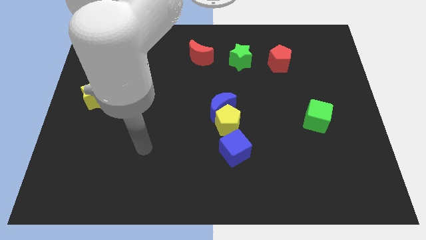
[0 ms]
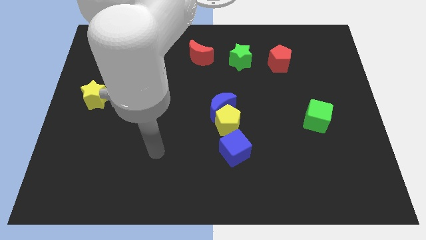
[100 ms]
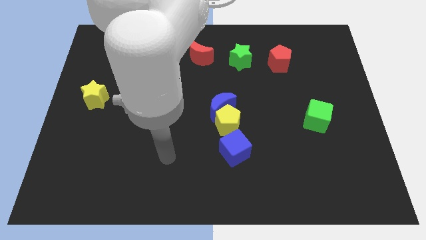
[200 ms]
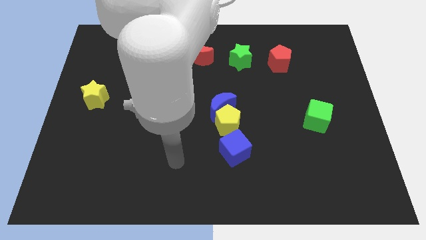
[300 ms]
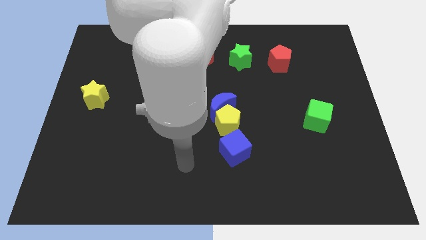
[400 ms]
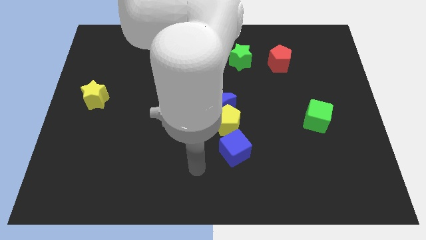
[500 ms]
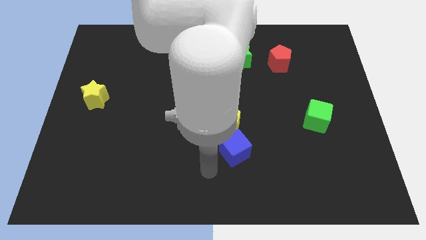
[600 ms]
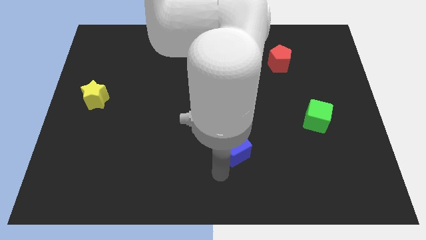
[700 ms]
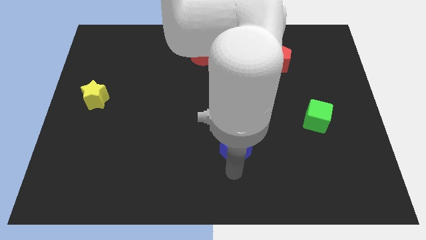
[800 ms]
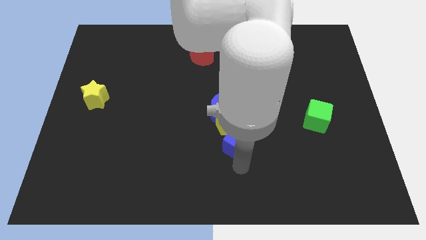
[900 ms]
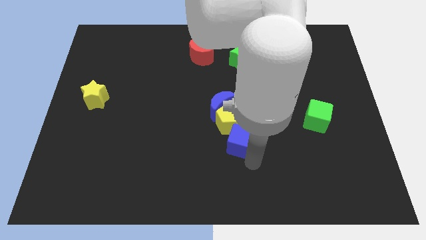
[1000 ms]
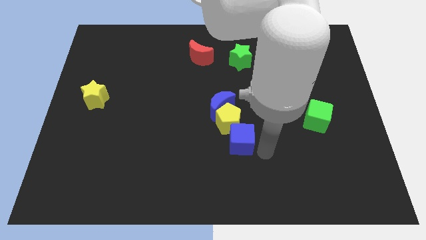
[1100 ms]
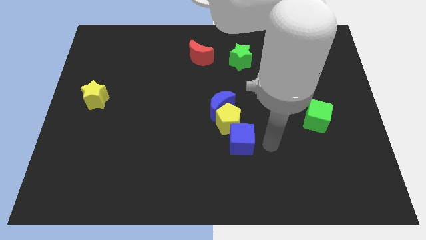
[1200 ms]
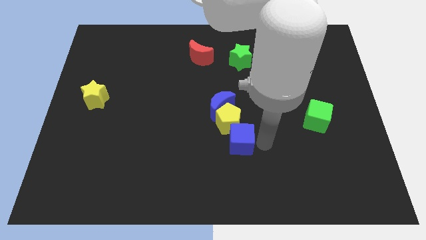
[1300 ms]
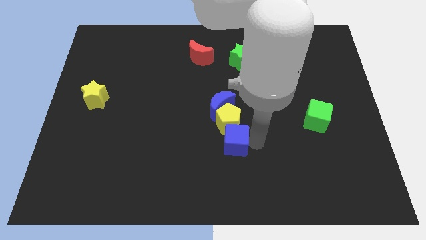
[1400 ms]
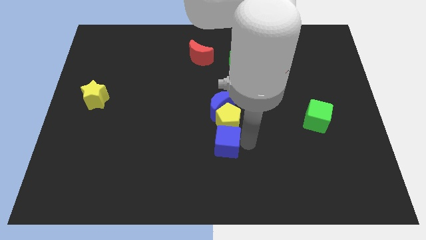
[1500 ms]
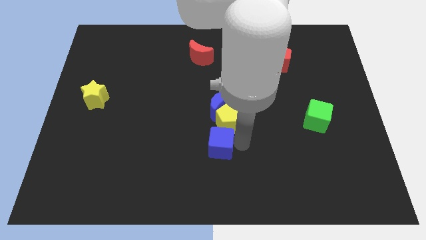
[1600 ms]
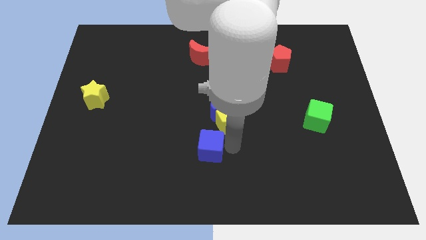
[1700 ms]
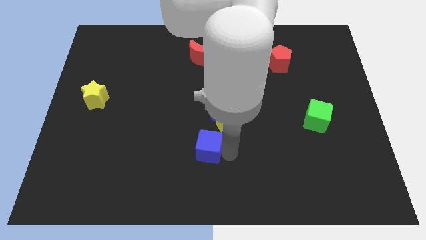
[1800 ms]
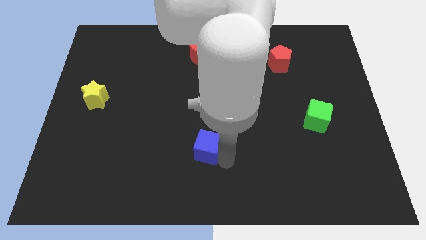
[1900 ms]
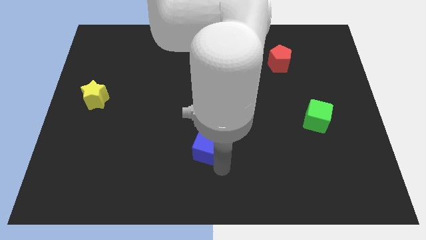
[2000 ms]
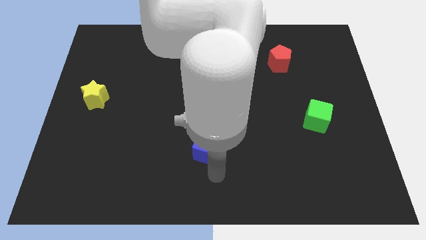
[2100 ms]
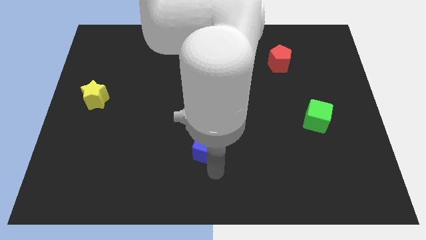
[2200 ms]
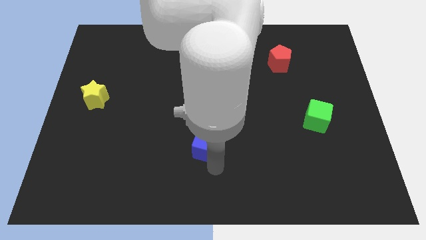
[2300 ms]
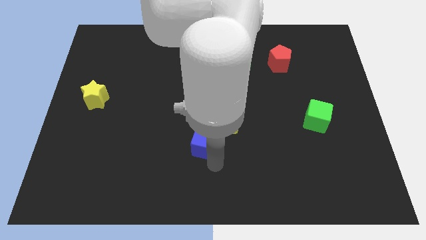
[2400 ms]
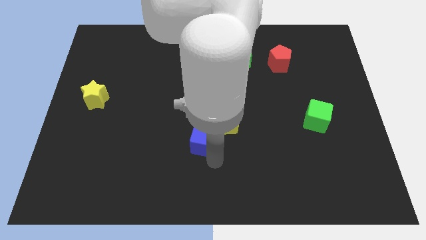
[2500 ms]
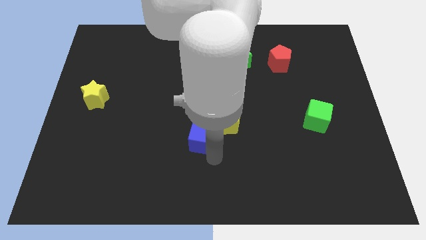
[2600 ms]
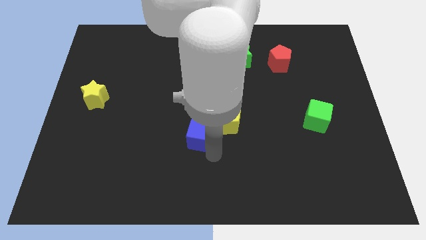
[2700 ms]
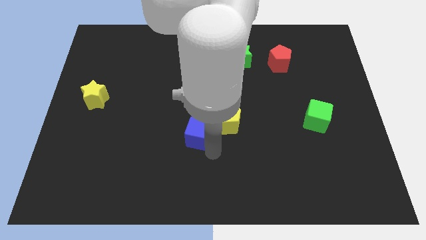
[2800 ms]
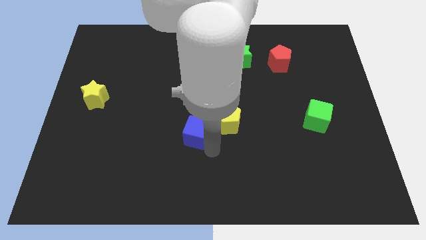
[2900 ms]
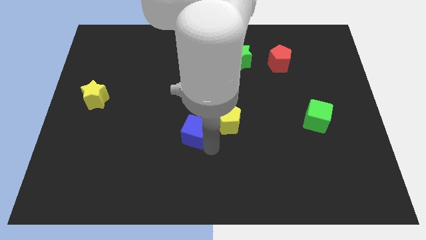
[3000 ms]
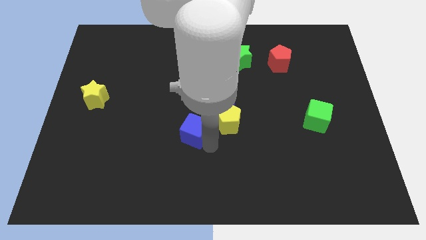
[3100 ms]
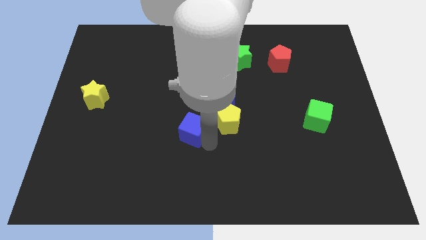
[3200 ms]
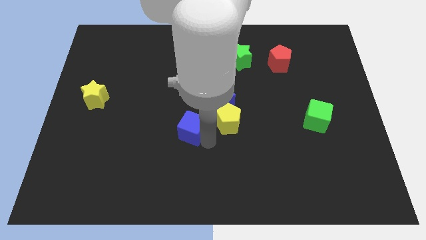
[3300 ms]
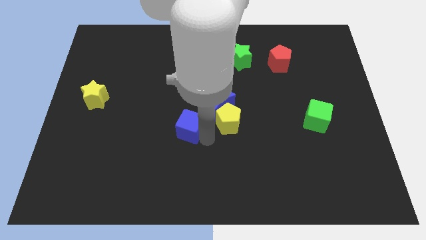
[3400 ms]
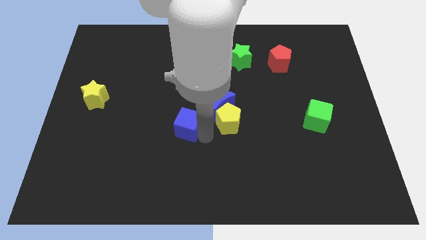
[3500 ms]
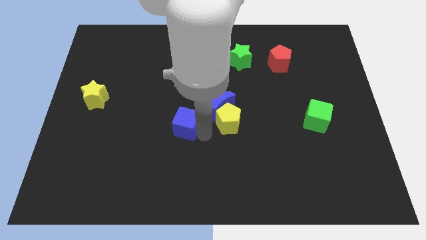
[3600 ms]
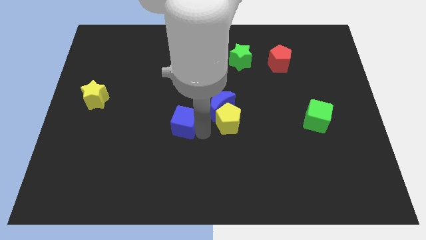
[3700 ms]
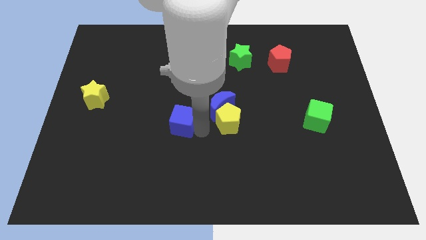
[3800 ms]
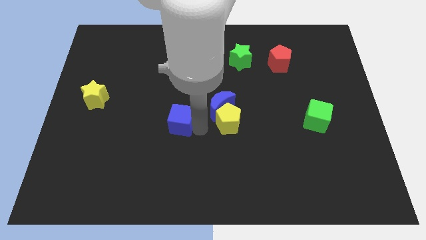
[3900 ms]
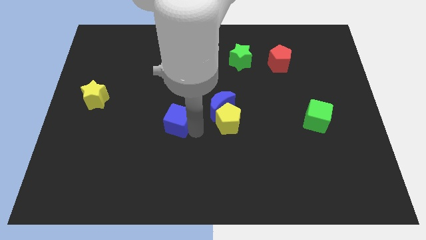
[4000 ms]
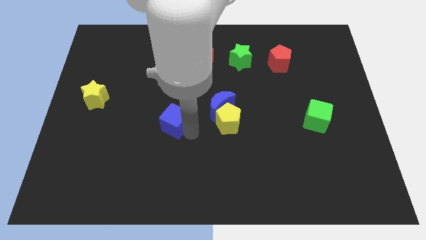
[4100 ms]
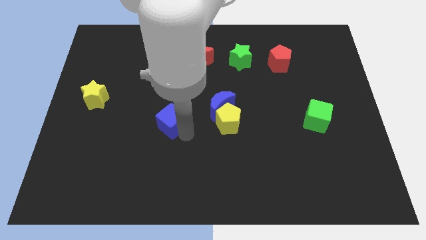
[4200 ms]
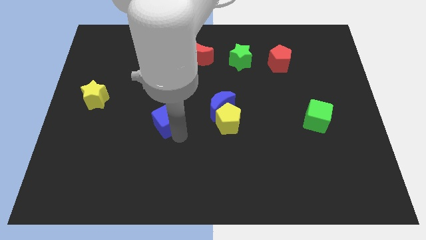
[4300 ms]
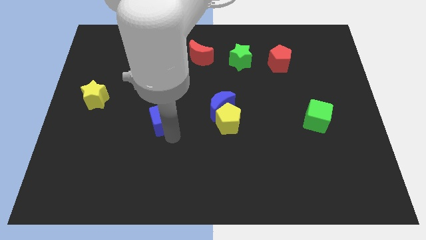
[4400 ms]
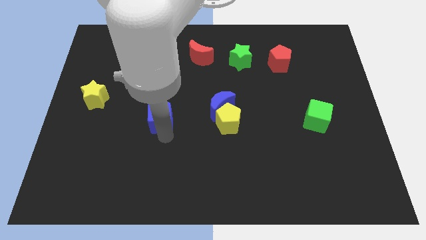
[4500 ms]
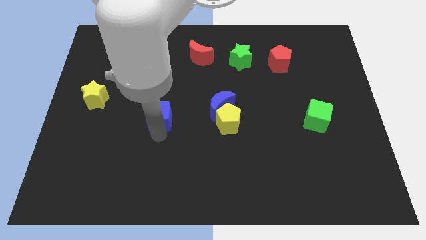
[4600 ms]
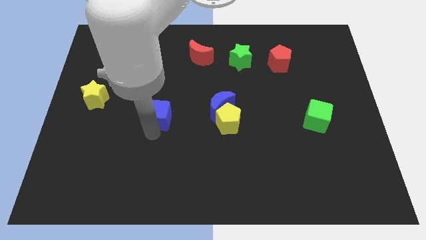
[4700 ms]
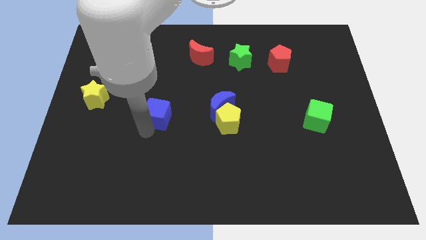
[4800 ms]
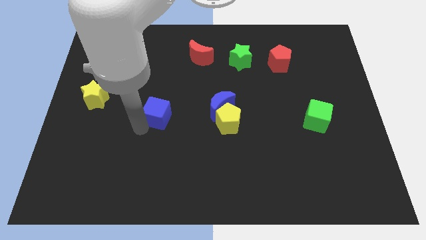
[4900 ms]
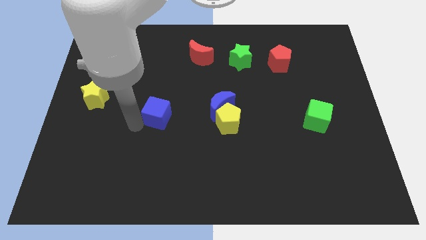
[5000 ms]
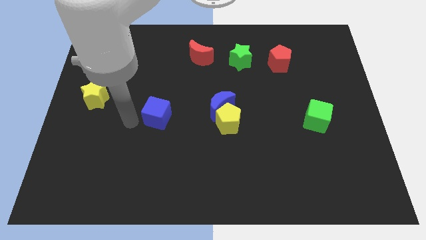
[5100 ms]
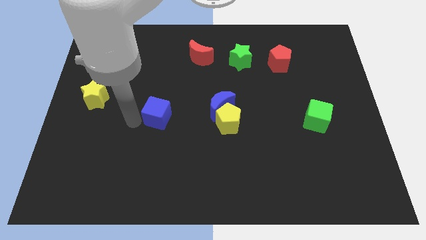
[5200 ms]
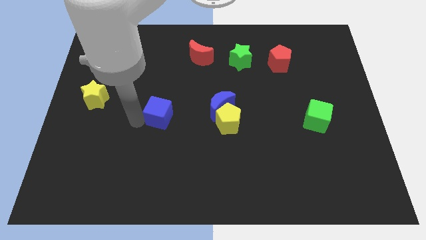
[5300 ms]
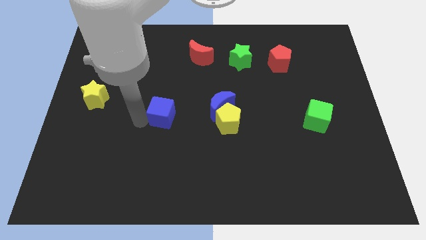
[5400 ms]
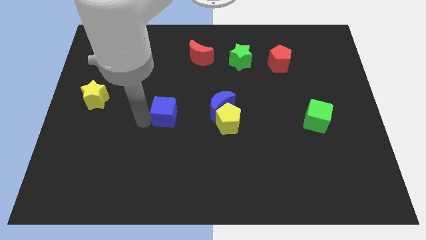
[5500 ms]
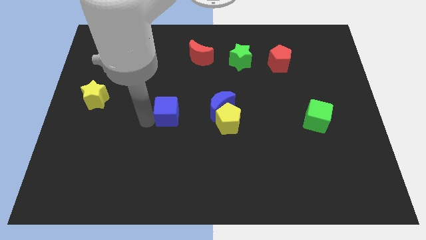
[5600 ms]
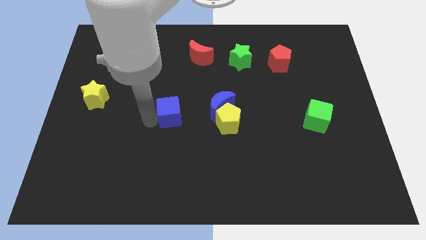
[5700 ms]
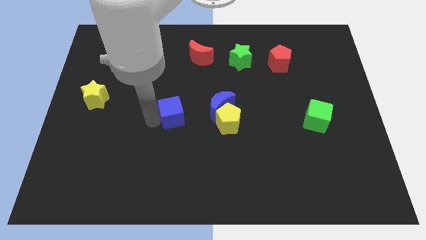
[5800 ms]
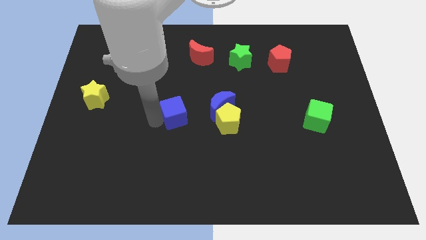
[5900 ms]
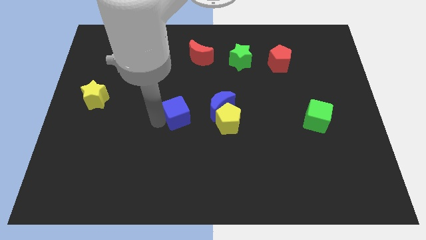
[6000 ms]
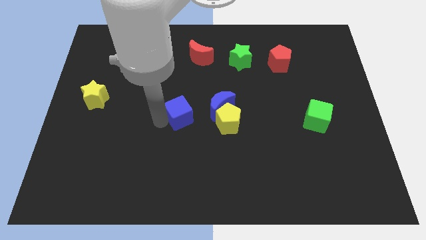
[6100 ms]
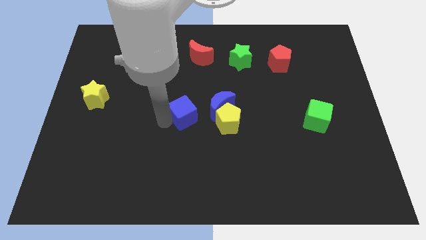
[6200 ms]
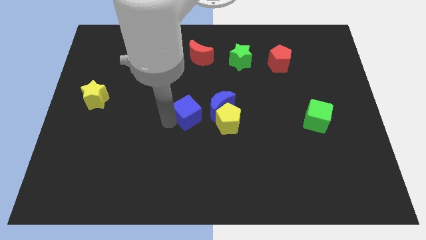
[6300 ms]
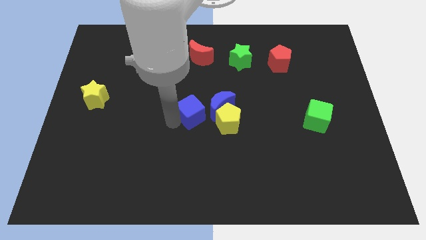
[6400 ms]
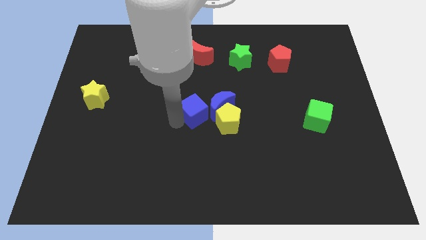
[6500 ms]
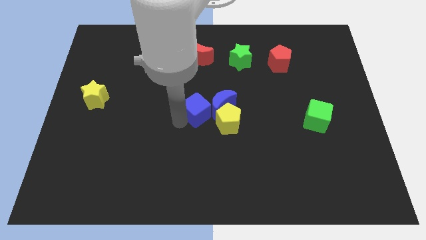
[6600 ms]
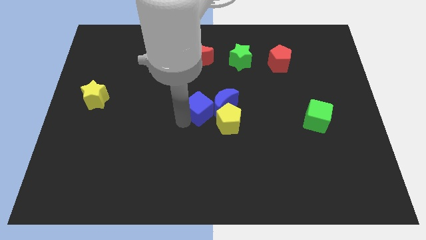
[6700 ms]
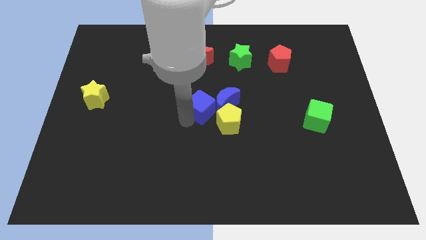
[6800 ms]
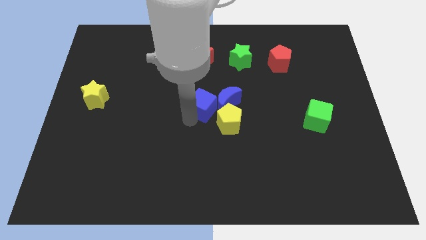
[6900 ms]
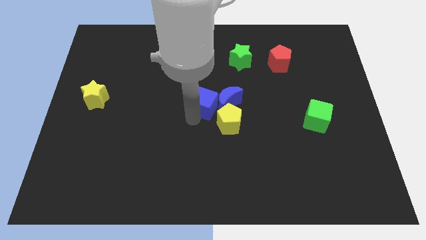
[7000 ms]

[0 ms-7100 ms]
move the blue cube to the top left of the blue moon

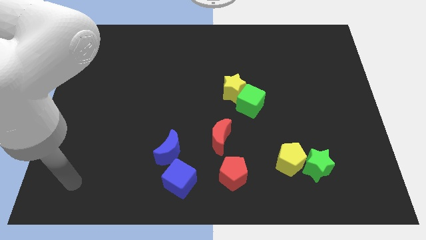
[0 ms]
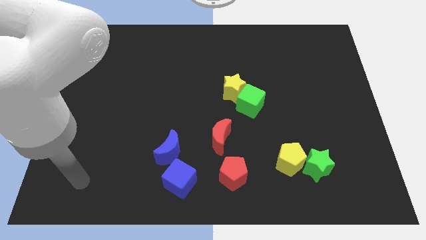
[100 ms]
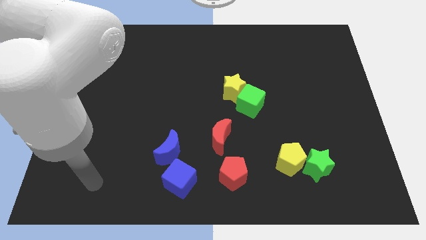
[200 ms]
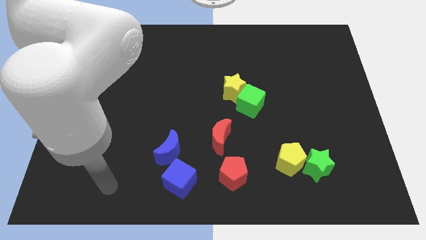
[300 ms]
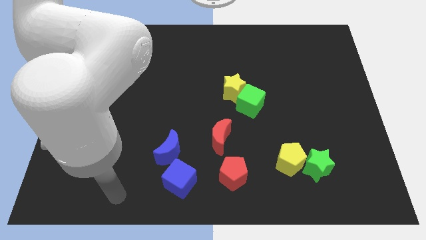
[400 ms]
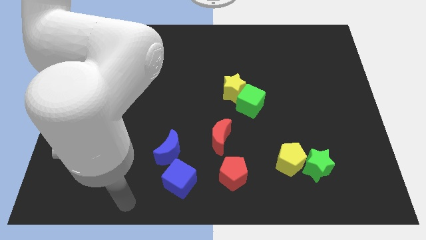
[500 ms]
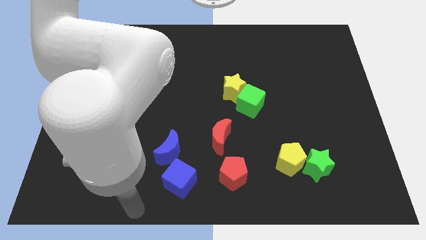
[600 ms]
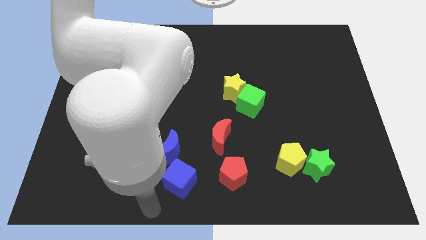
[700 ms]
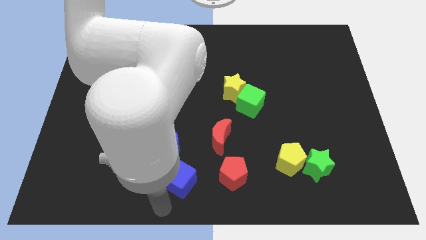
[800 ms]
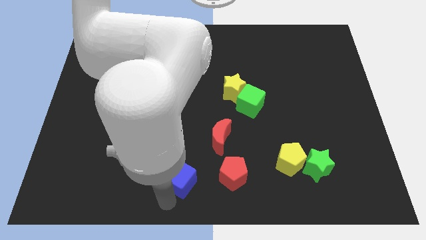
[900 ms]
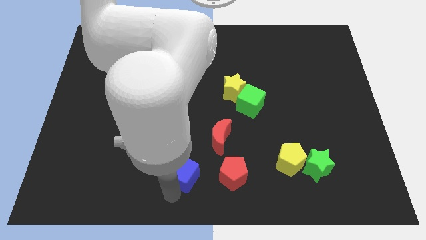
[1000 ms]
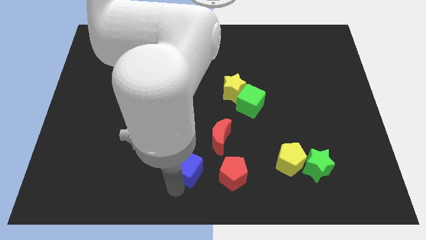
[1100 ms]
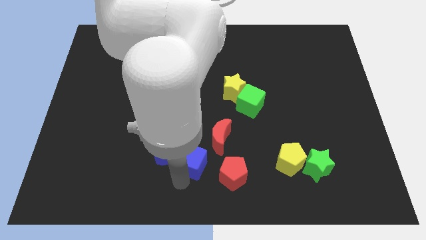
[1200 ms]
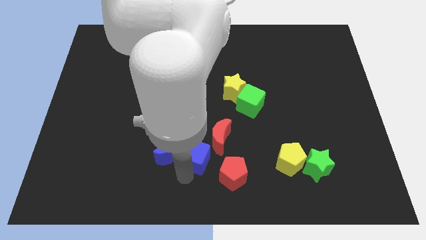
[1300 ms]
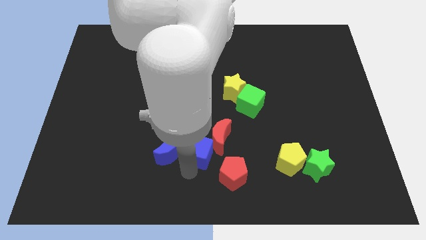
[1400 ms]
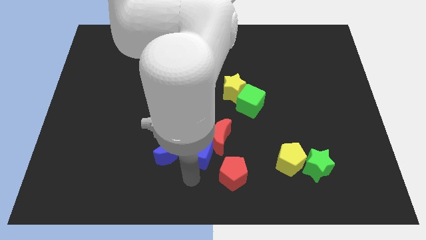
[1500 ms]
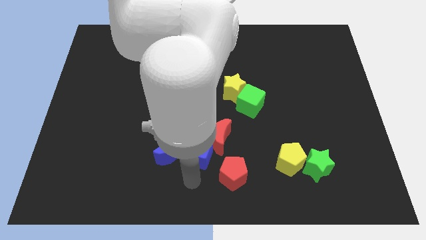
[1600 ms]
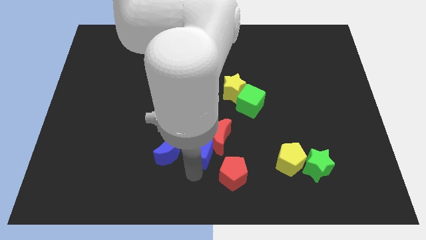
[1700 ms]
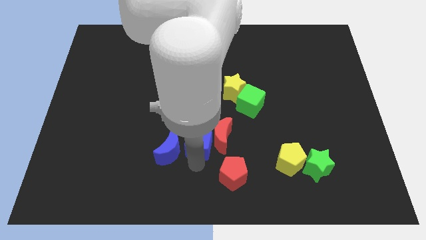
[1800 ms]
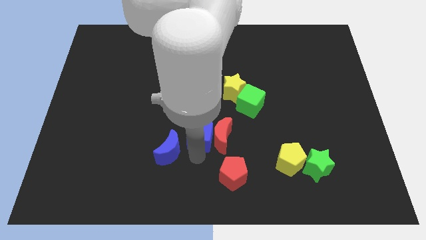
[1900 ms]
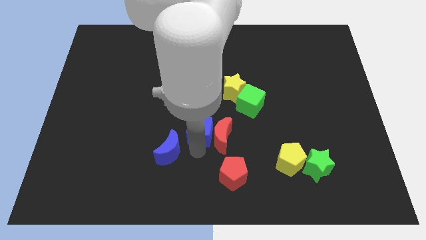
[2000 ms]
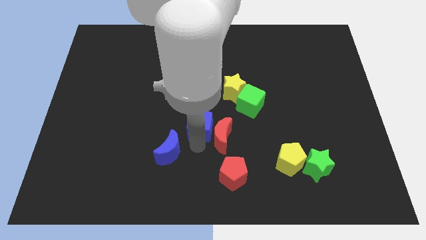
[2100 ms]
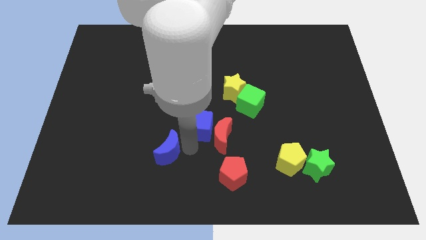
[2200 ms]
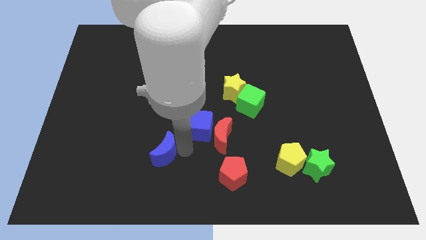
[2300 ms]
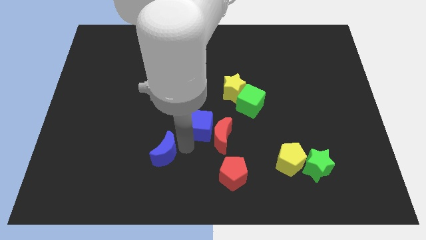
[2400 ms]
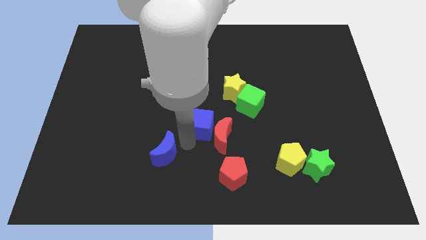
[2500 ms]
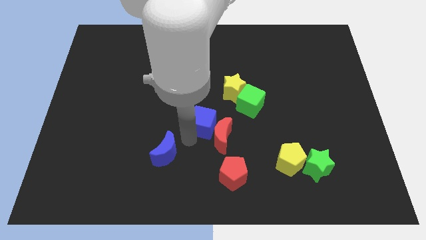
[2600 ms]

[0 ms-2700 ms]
put the blue cube to the top side of the red moon
